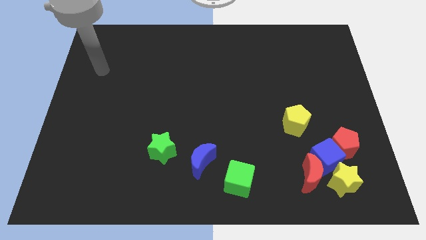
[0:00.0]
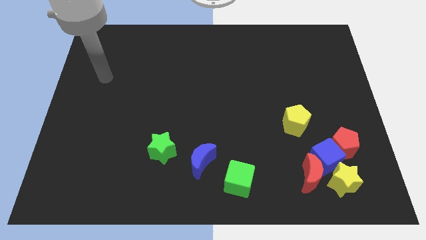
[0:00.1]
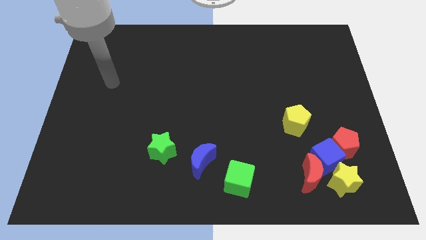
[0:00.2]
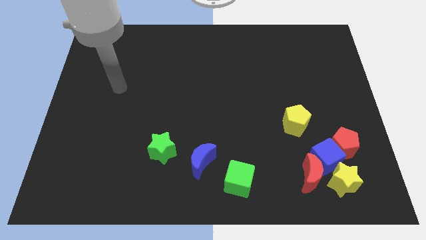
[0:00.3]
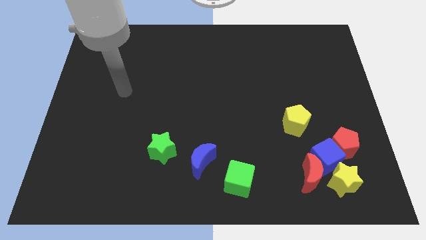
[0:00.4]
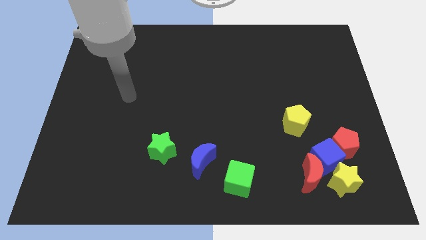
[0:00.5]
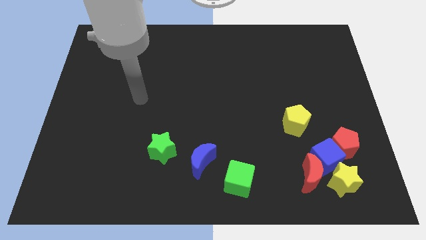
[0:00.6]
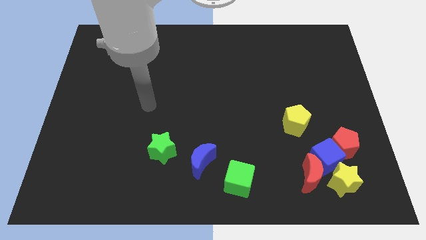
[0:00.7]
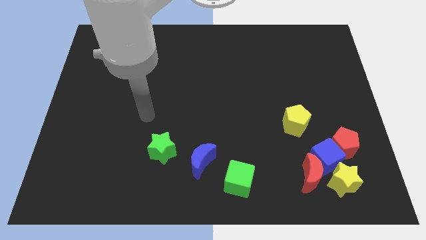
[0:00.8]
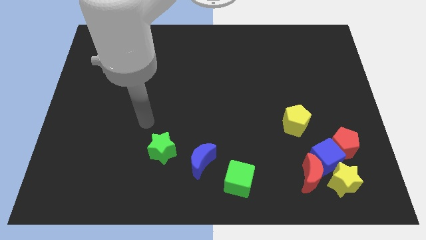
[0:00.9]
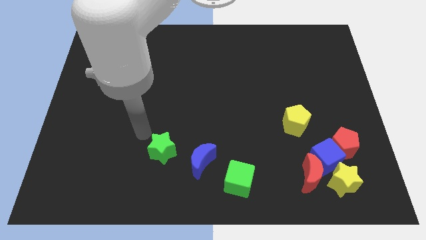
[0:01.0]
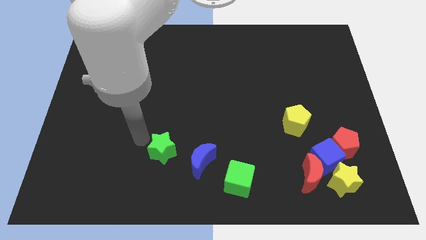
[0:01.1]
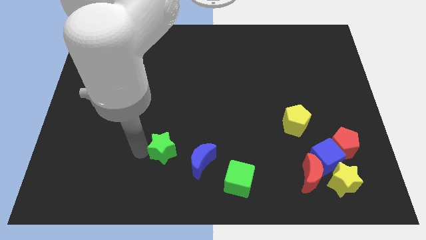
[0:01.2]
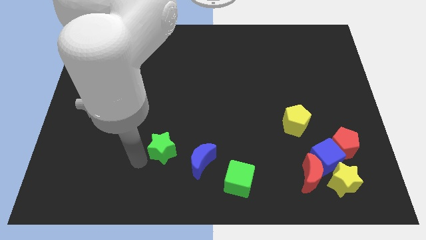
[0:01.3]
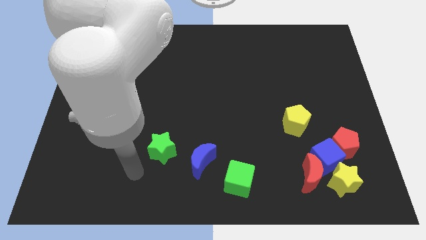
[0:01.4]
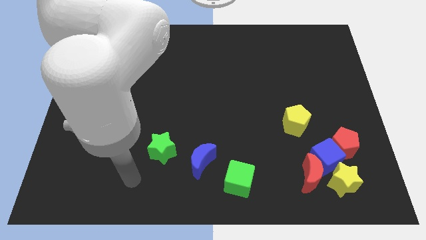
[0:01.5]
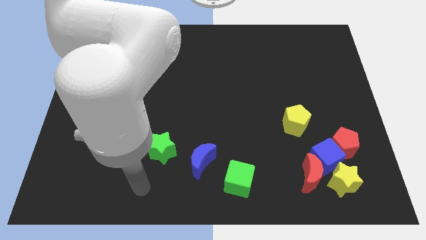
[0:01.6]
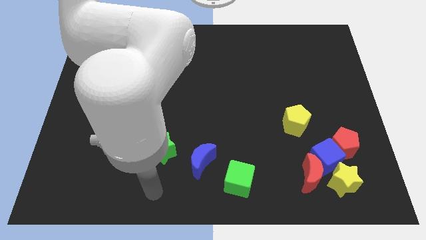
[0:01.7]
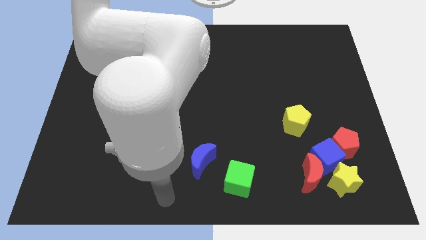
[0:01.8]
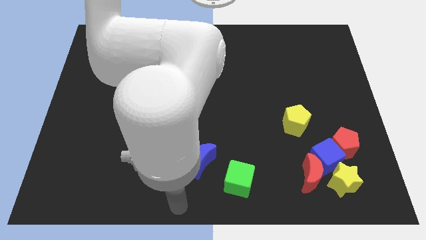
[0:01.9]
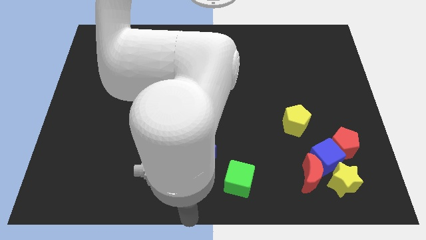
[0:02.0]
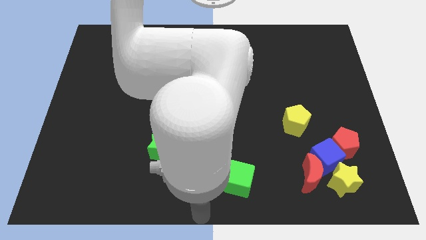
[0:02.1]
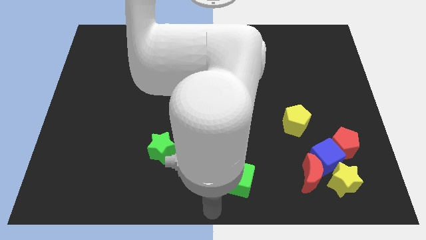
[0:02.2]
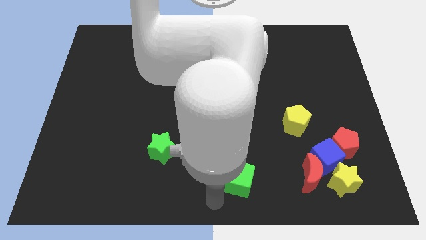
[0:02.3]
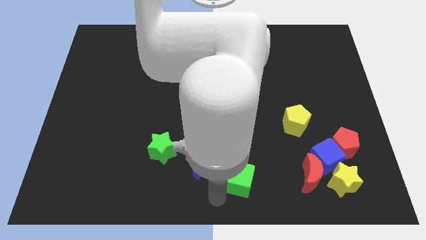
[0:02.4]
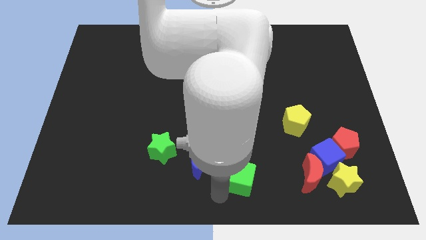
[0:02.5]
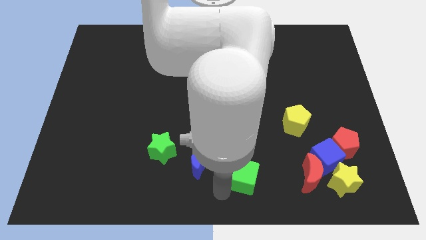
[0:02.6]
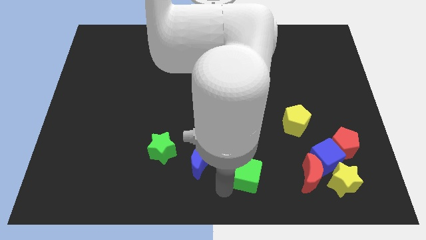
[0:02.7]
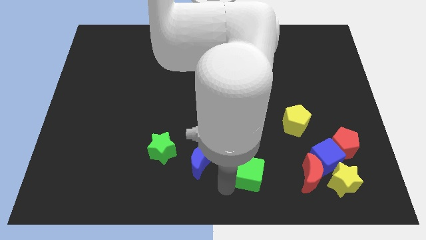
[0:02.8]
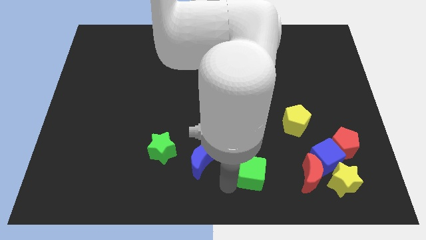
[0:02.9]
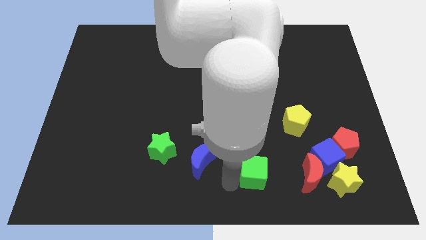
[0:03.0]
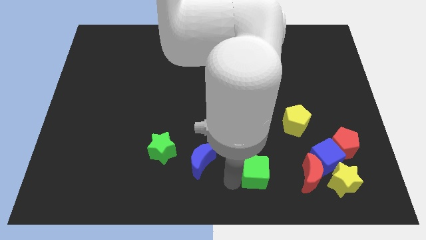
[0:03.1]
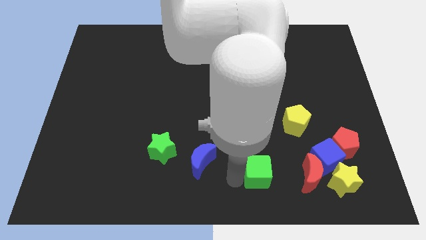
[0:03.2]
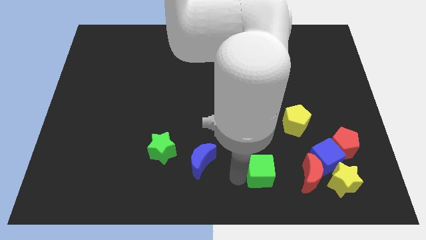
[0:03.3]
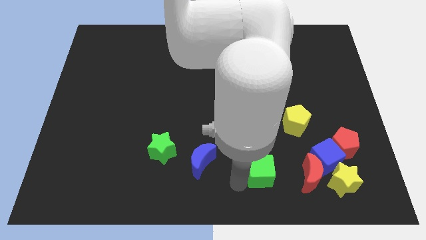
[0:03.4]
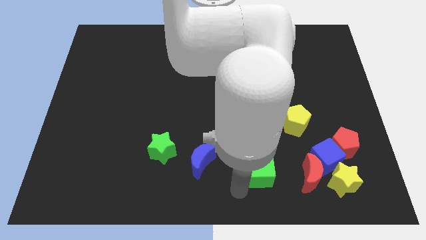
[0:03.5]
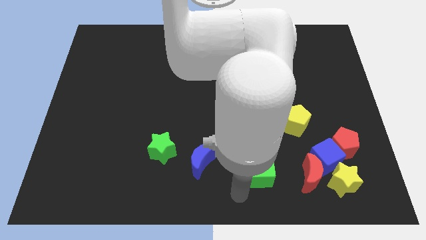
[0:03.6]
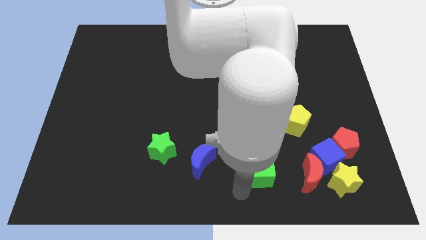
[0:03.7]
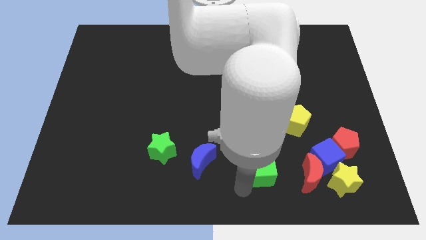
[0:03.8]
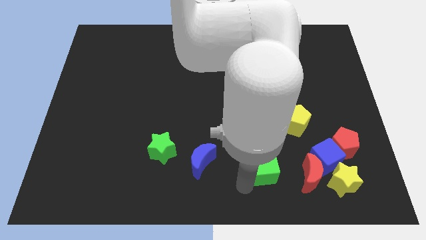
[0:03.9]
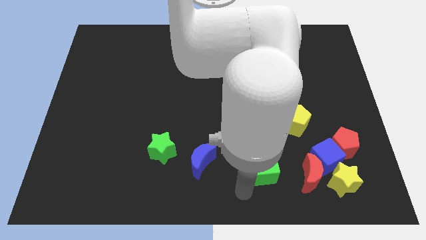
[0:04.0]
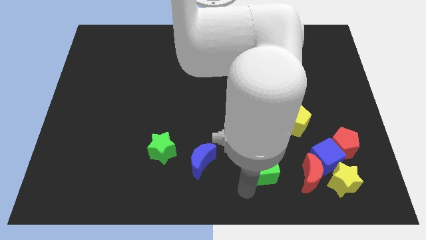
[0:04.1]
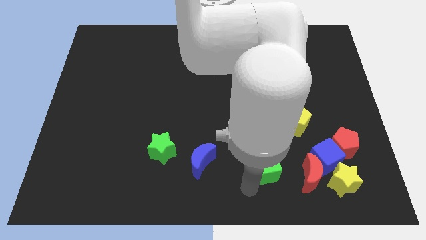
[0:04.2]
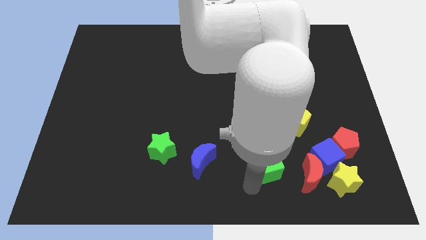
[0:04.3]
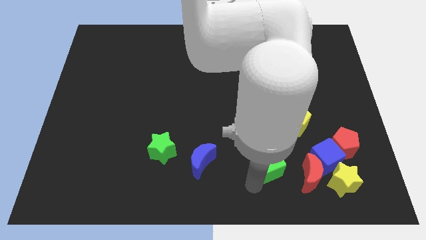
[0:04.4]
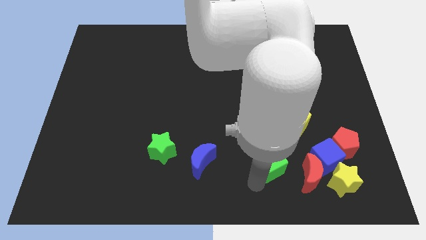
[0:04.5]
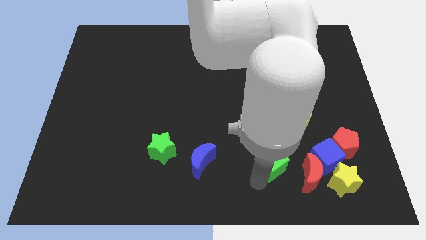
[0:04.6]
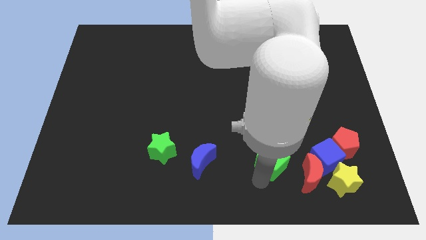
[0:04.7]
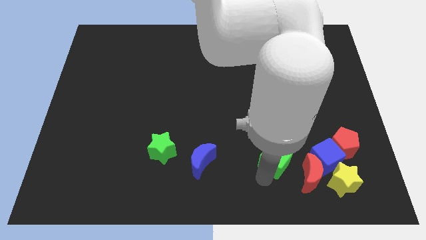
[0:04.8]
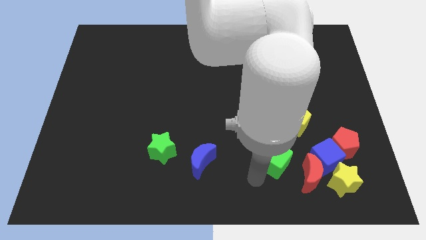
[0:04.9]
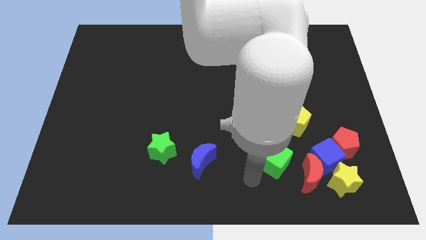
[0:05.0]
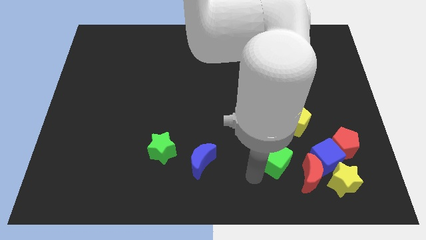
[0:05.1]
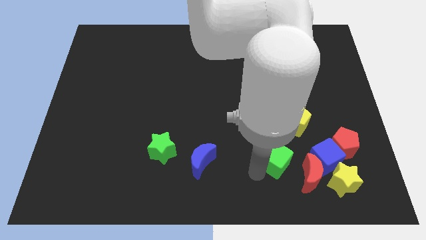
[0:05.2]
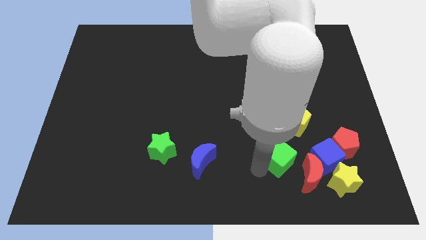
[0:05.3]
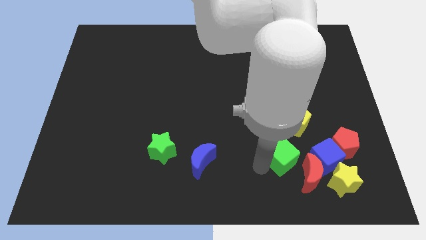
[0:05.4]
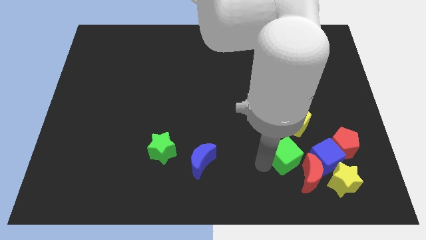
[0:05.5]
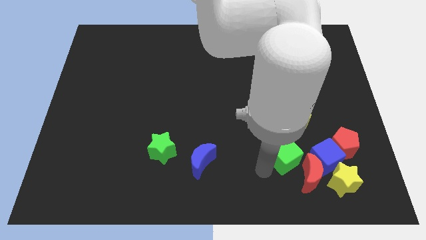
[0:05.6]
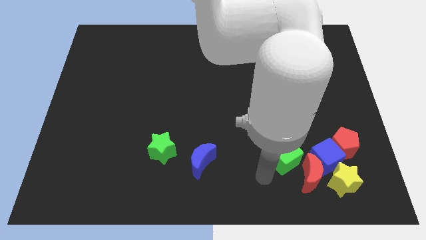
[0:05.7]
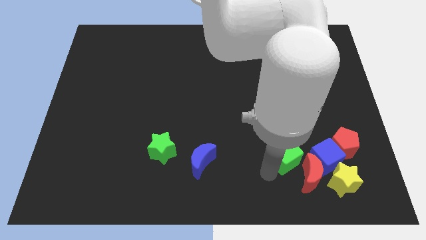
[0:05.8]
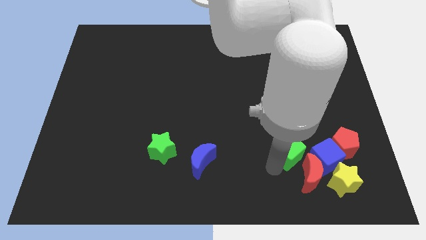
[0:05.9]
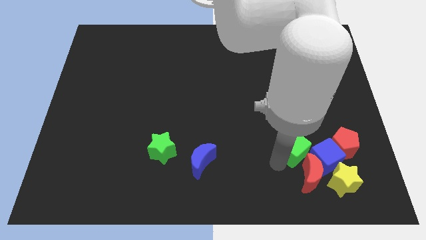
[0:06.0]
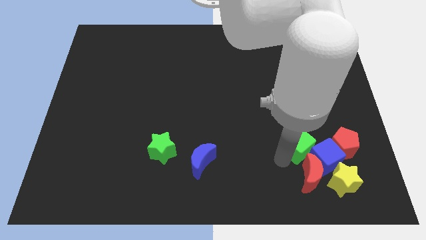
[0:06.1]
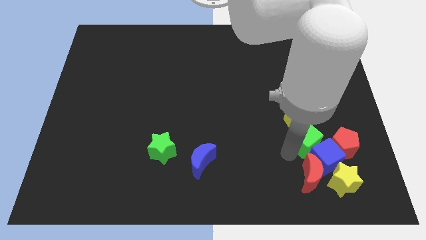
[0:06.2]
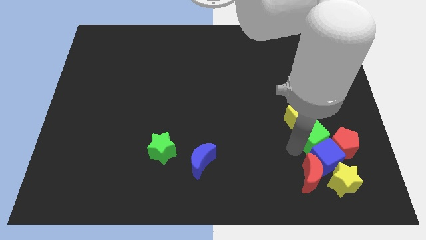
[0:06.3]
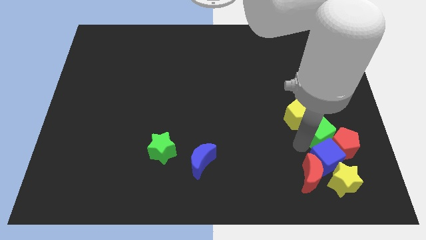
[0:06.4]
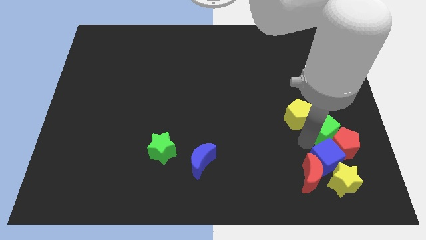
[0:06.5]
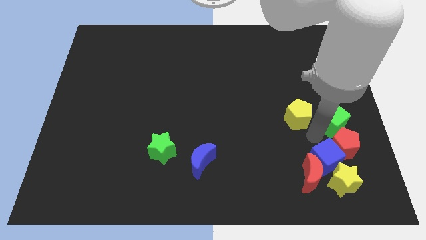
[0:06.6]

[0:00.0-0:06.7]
move the green cube to the right side
